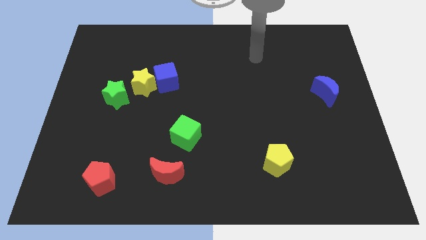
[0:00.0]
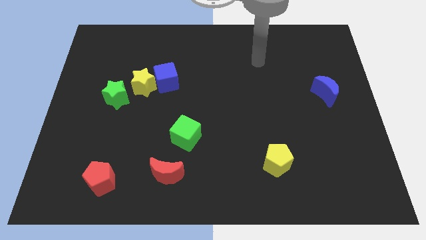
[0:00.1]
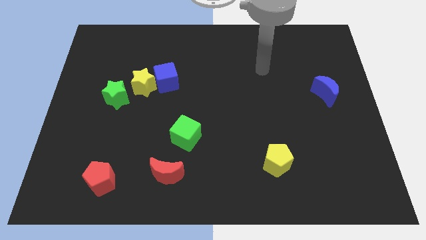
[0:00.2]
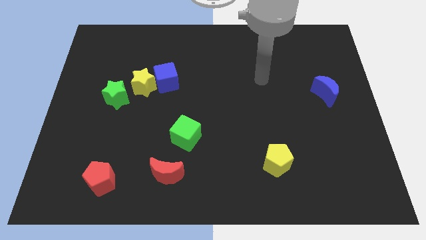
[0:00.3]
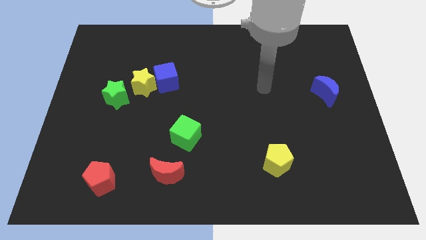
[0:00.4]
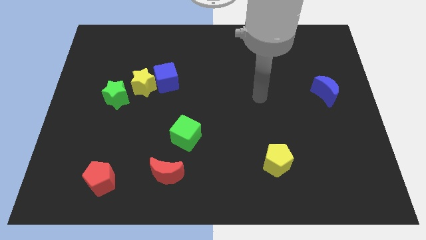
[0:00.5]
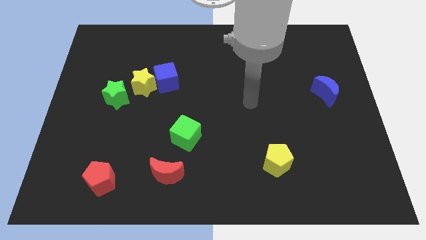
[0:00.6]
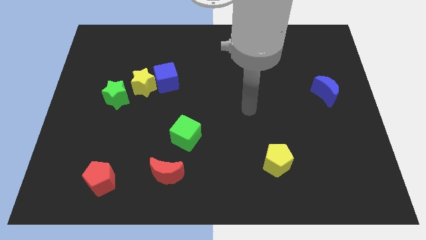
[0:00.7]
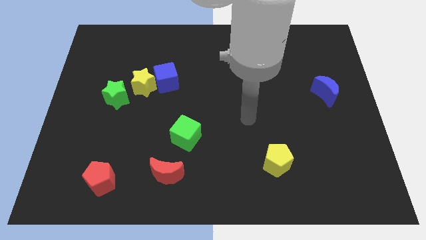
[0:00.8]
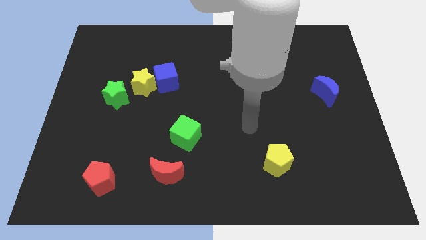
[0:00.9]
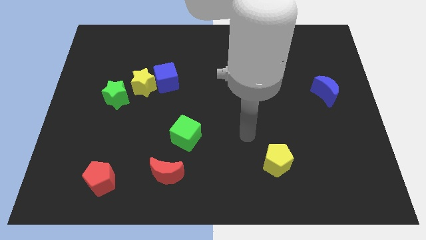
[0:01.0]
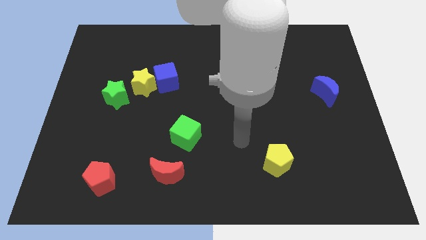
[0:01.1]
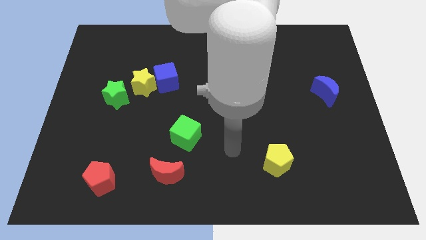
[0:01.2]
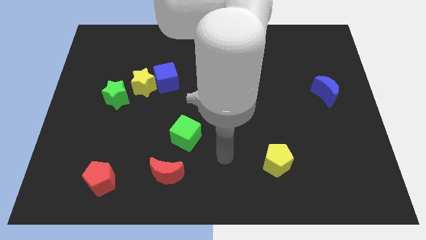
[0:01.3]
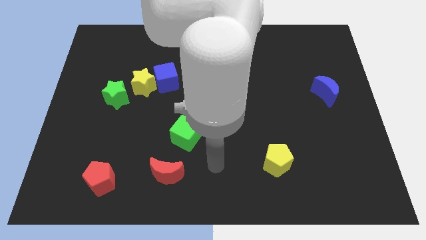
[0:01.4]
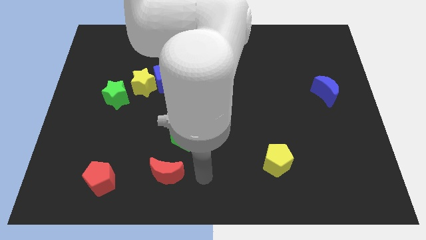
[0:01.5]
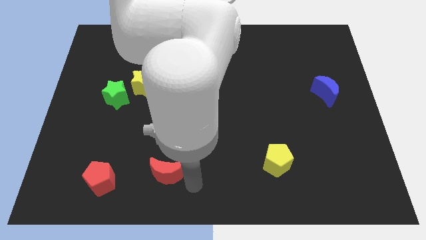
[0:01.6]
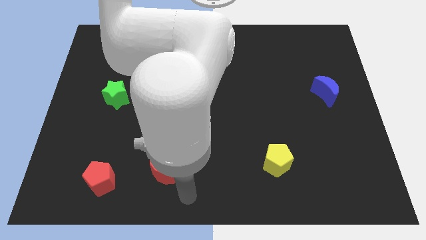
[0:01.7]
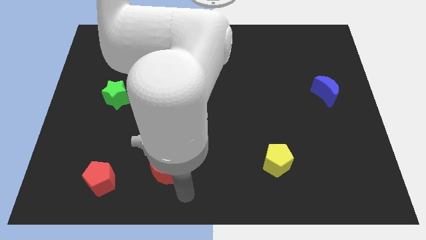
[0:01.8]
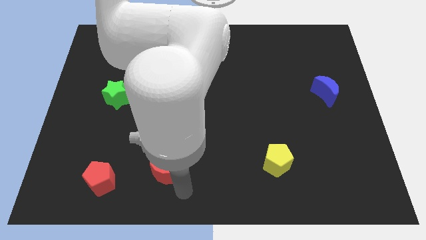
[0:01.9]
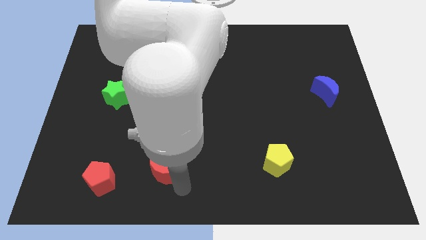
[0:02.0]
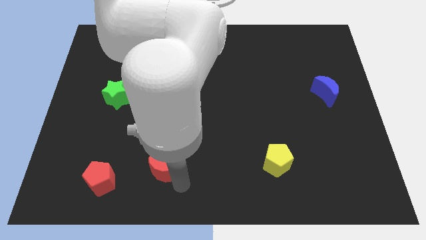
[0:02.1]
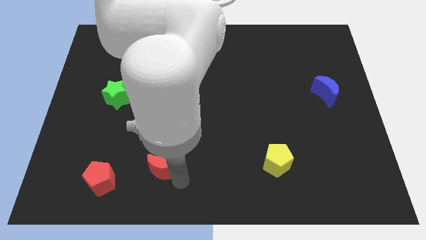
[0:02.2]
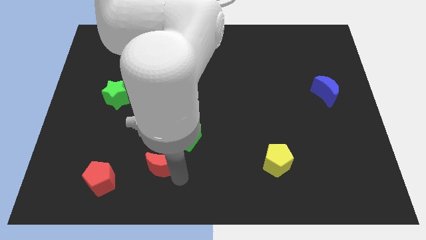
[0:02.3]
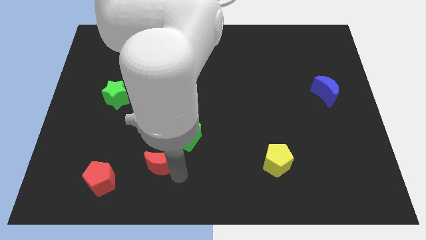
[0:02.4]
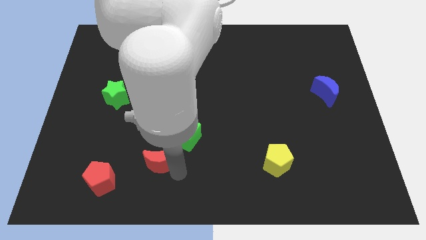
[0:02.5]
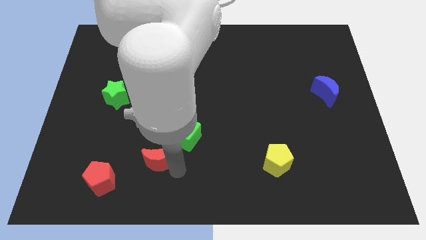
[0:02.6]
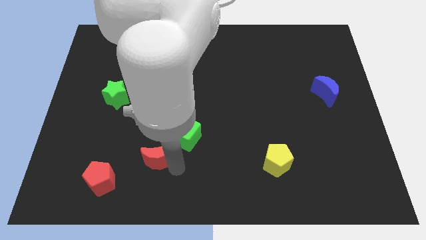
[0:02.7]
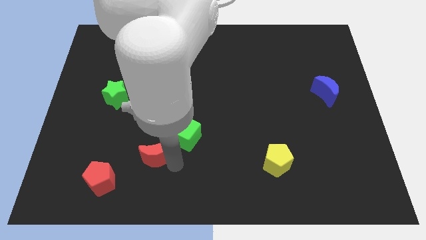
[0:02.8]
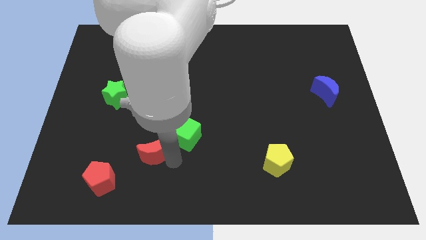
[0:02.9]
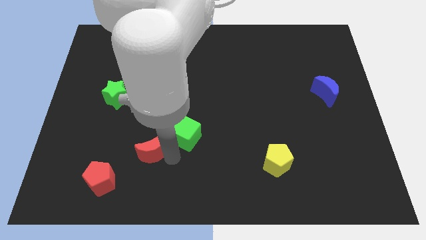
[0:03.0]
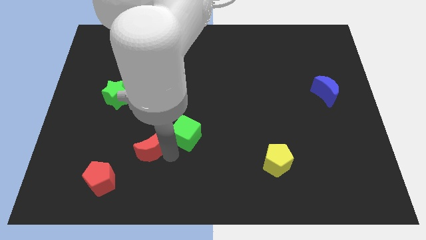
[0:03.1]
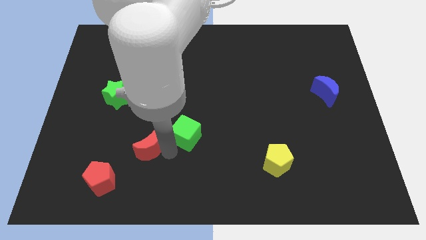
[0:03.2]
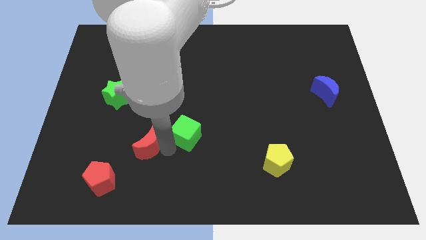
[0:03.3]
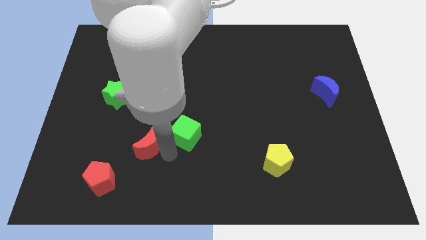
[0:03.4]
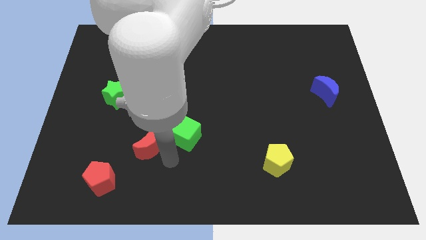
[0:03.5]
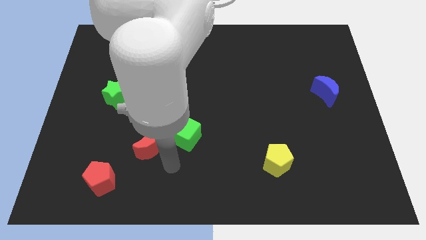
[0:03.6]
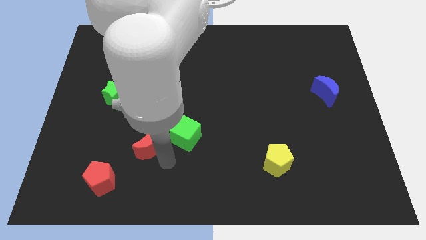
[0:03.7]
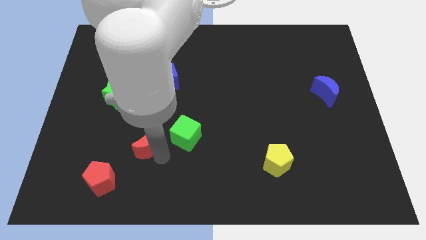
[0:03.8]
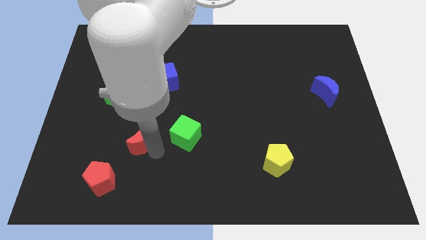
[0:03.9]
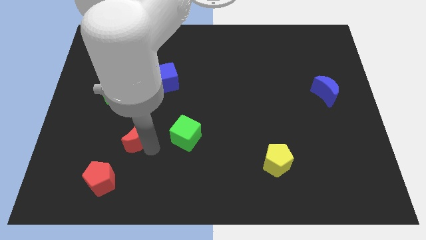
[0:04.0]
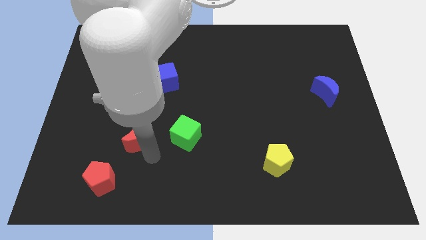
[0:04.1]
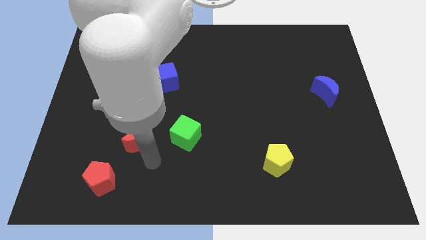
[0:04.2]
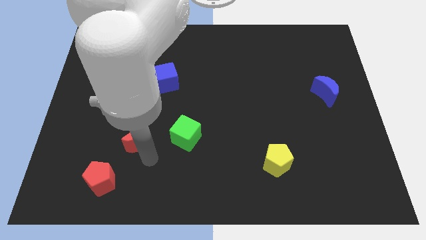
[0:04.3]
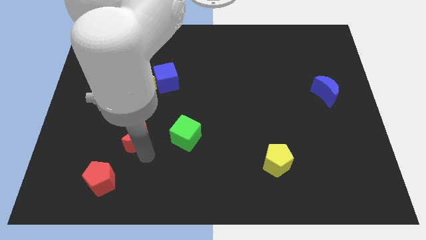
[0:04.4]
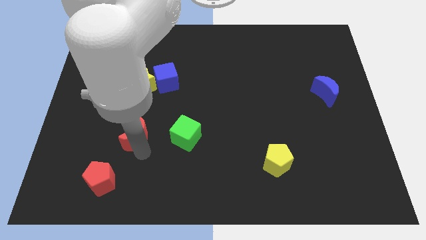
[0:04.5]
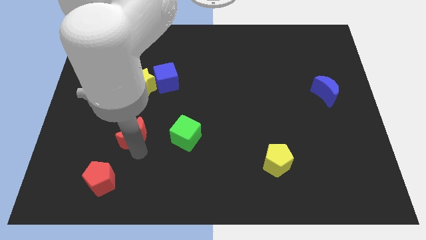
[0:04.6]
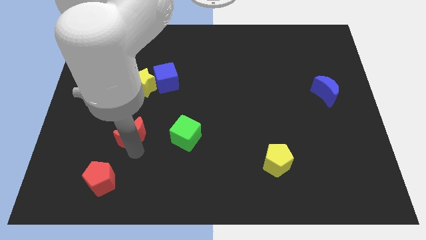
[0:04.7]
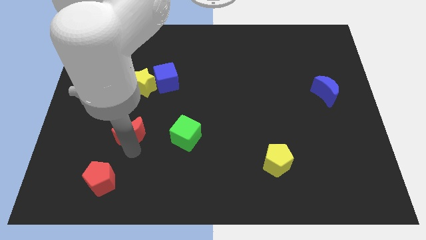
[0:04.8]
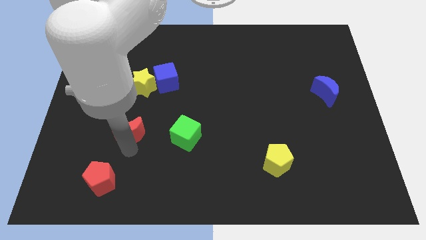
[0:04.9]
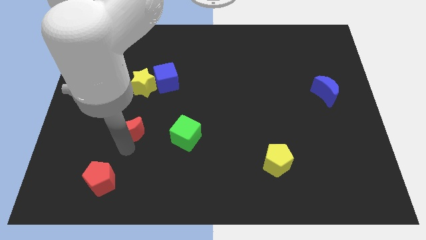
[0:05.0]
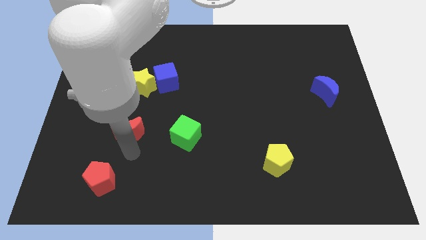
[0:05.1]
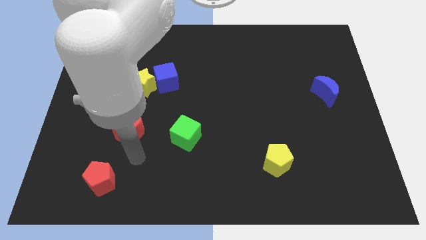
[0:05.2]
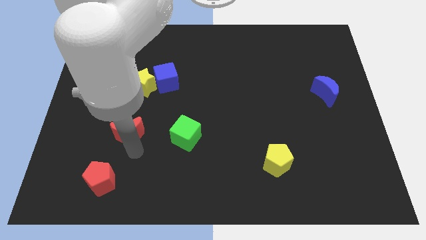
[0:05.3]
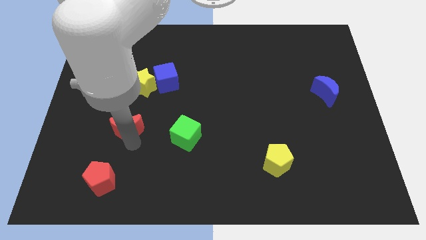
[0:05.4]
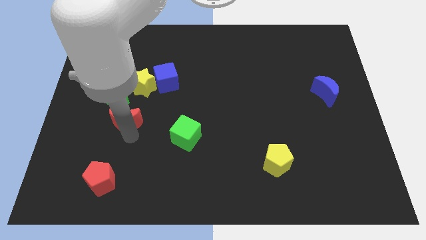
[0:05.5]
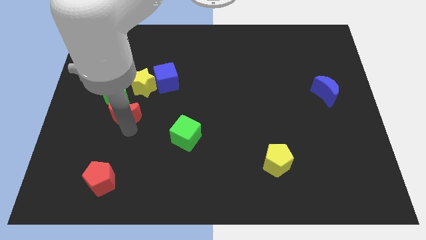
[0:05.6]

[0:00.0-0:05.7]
slide the red moon diagonally down and to the left of the yellow star
